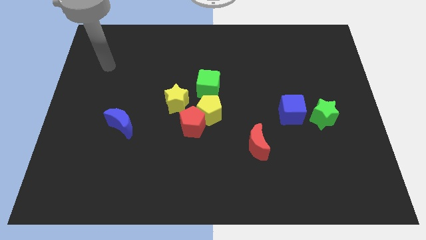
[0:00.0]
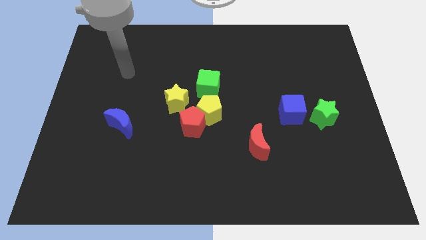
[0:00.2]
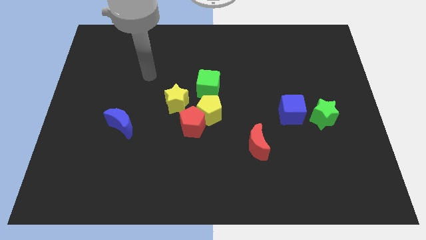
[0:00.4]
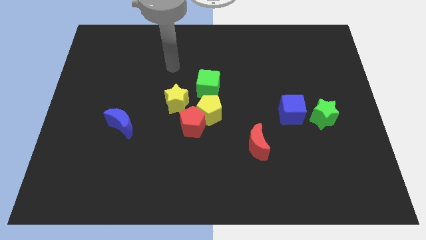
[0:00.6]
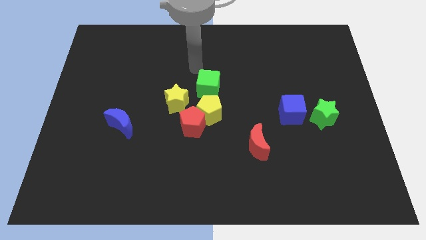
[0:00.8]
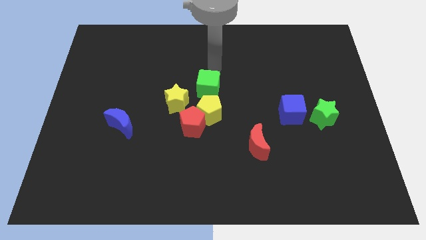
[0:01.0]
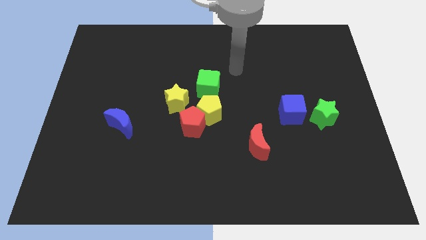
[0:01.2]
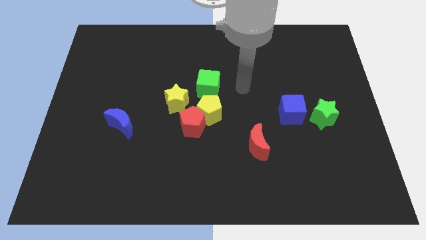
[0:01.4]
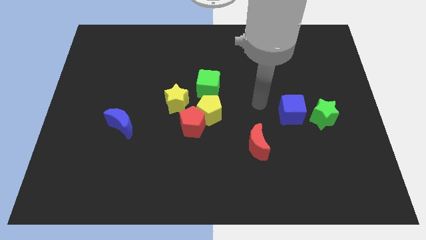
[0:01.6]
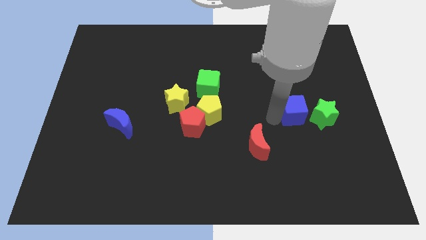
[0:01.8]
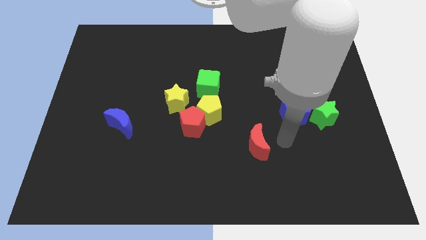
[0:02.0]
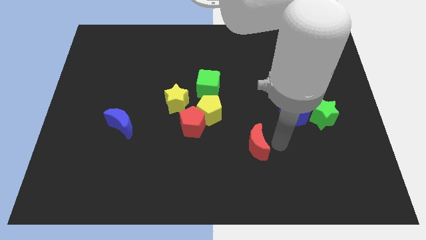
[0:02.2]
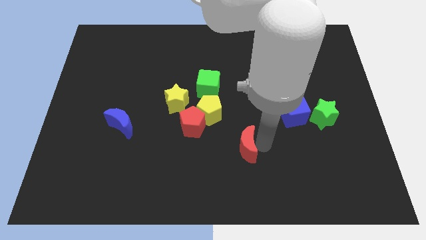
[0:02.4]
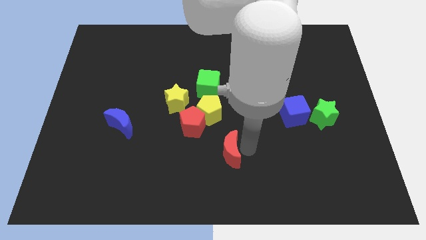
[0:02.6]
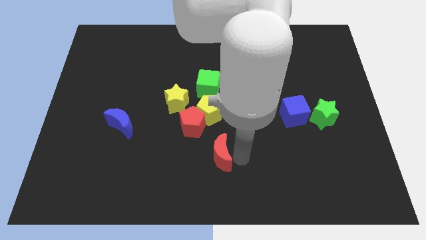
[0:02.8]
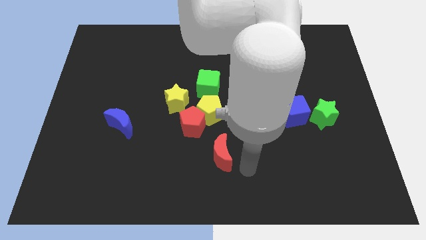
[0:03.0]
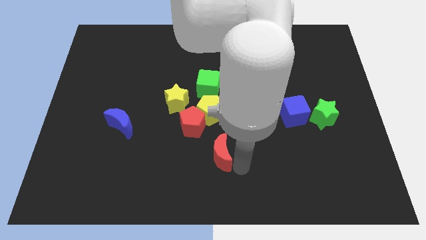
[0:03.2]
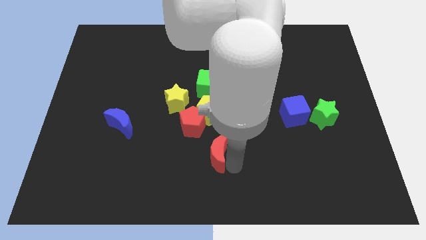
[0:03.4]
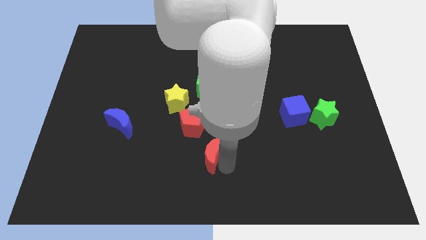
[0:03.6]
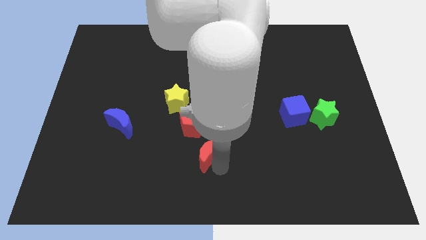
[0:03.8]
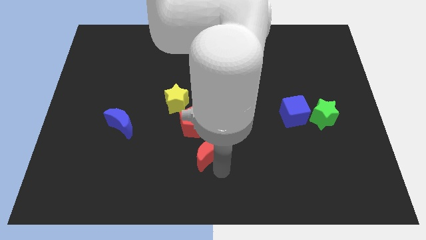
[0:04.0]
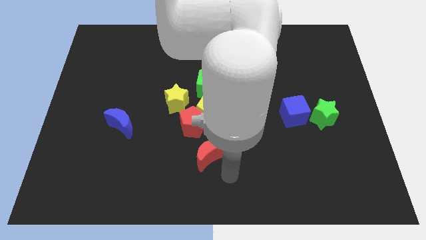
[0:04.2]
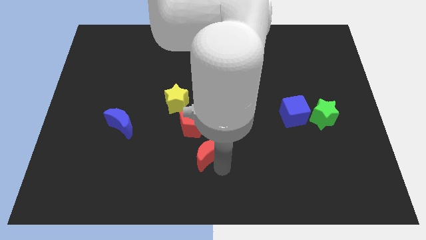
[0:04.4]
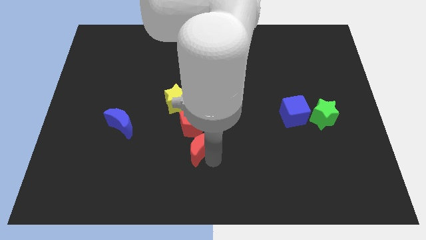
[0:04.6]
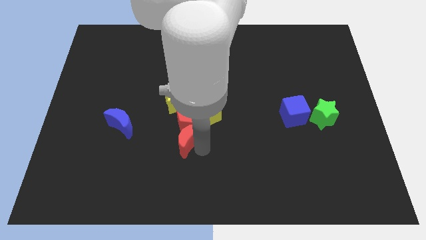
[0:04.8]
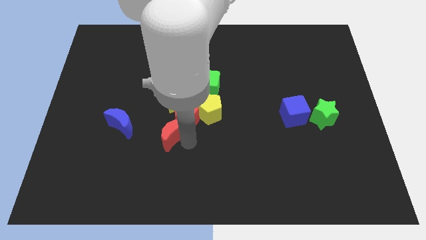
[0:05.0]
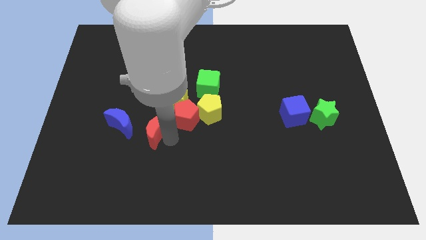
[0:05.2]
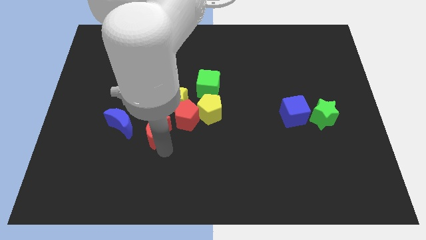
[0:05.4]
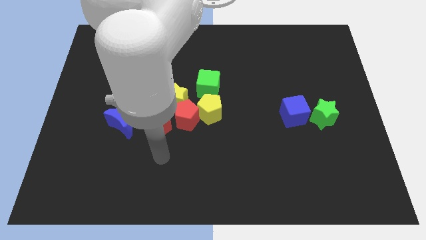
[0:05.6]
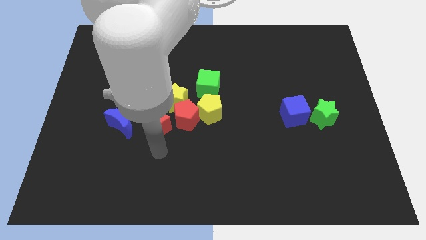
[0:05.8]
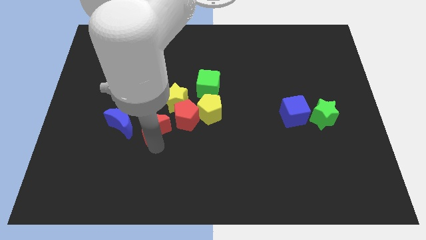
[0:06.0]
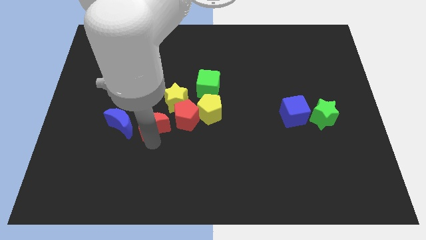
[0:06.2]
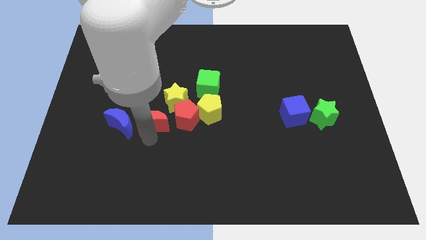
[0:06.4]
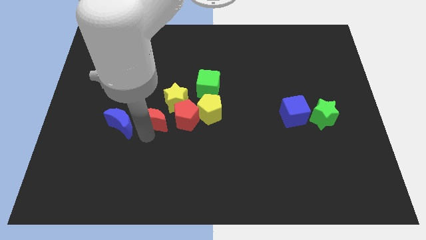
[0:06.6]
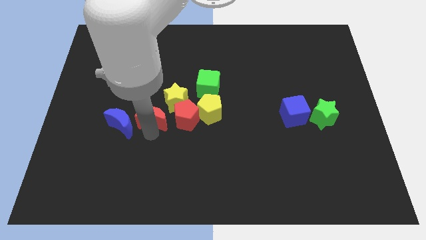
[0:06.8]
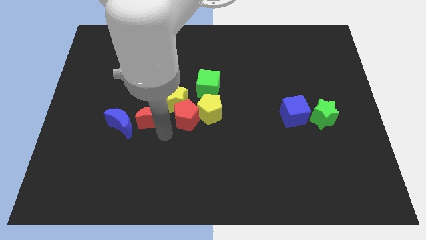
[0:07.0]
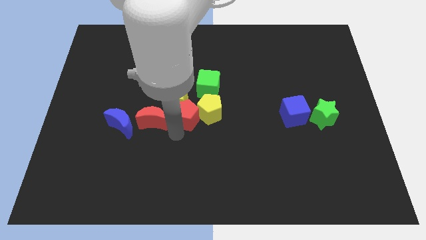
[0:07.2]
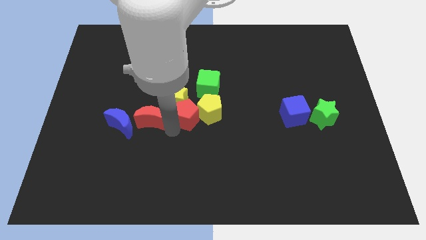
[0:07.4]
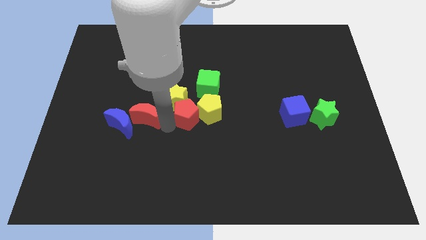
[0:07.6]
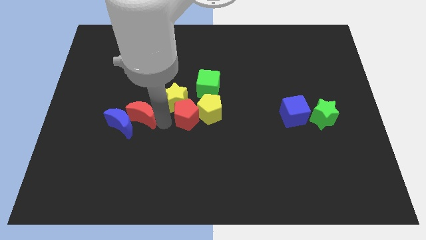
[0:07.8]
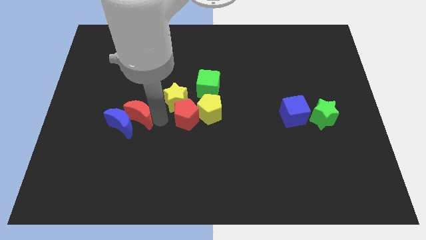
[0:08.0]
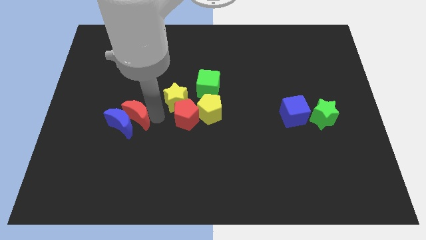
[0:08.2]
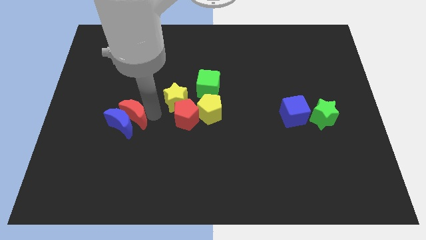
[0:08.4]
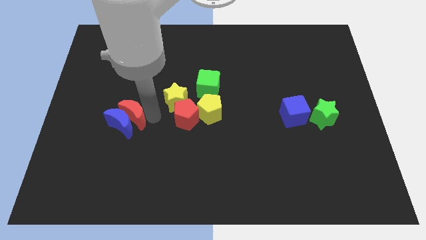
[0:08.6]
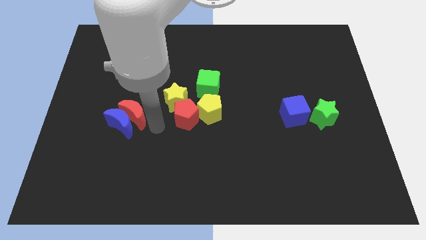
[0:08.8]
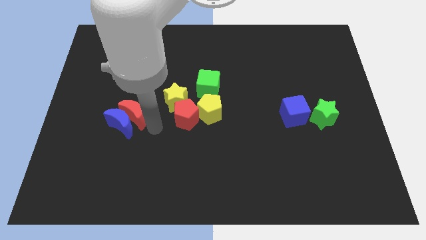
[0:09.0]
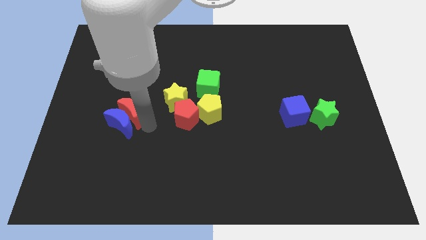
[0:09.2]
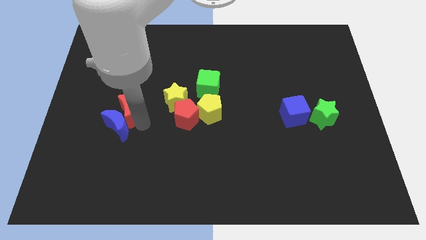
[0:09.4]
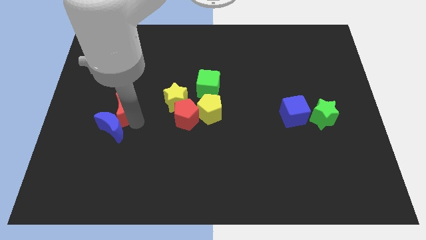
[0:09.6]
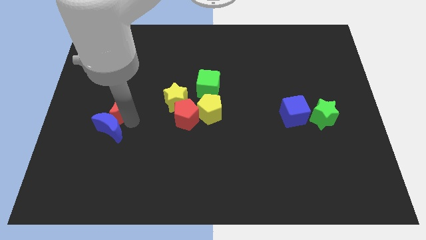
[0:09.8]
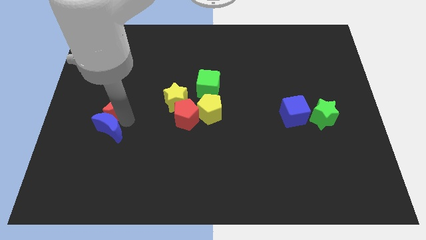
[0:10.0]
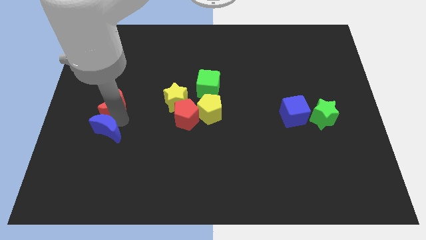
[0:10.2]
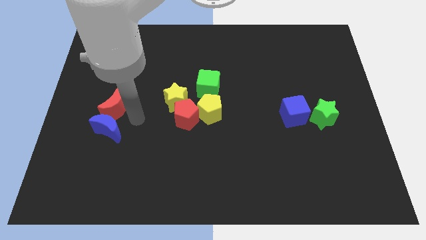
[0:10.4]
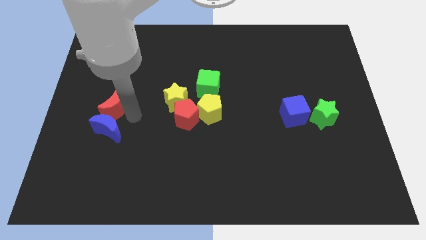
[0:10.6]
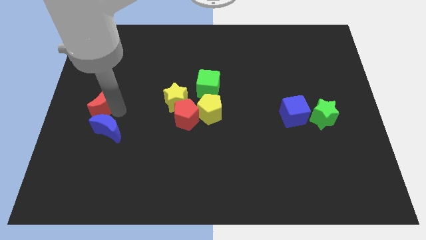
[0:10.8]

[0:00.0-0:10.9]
slide the red moon to the left side

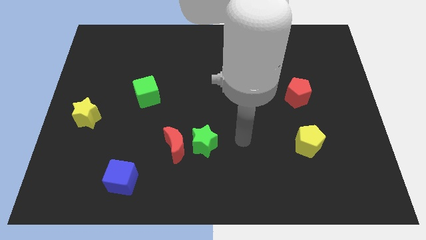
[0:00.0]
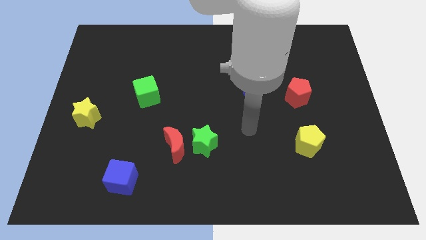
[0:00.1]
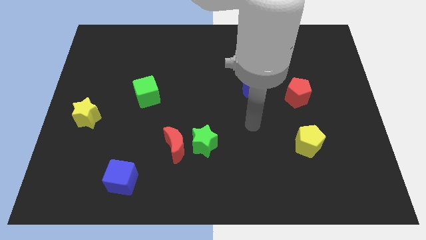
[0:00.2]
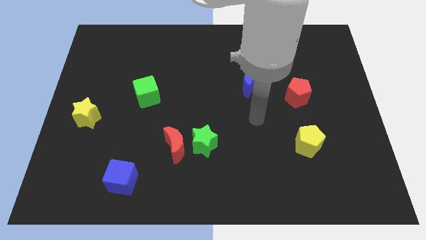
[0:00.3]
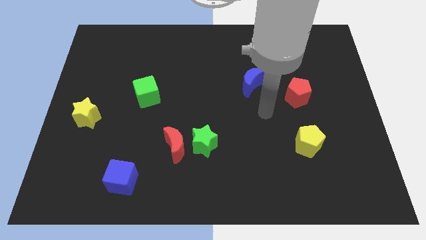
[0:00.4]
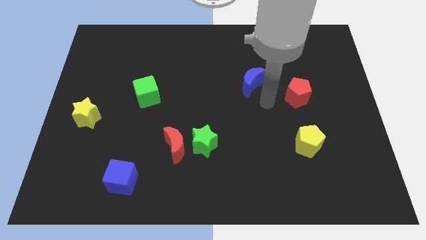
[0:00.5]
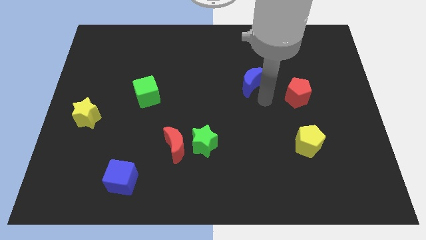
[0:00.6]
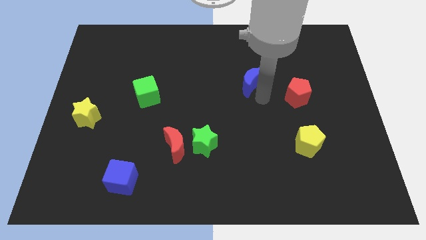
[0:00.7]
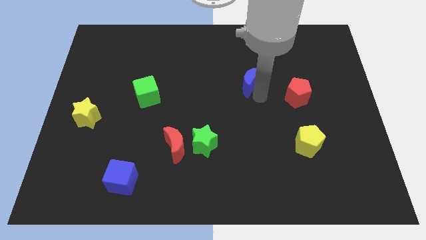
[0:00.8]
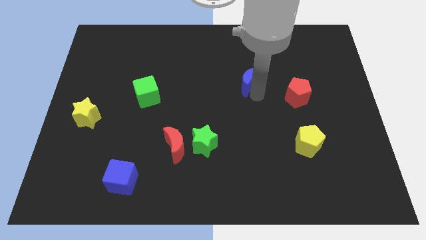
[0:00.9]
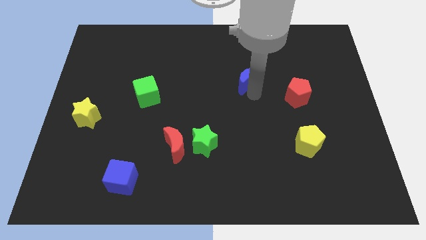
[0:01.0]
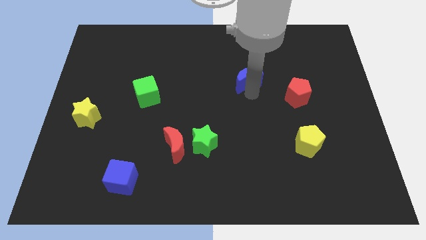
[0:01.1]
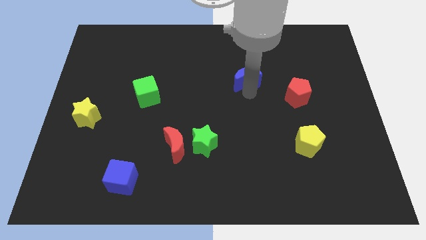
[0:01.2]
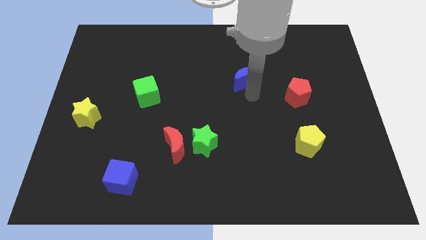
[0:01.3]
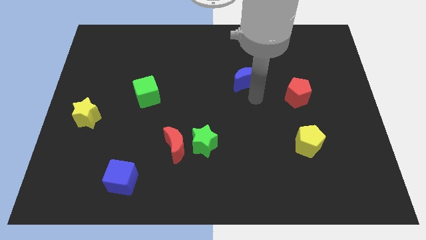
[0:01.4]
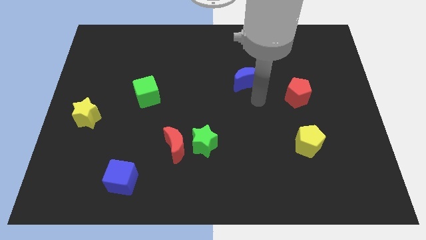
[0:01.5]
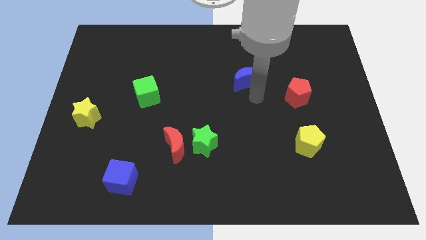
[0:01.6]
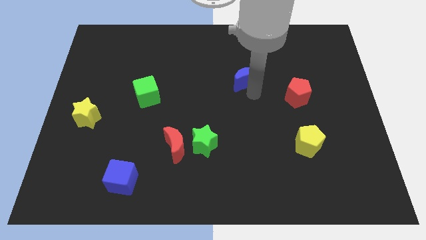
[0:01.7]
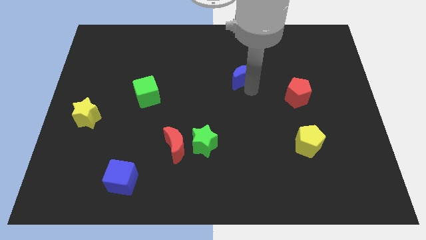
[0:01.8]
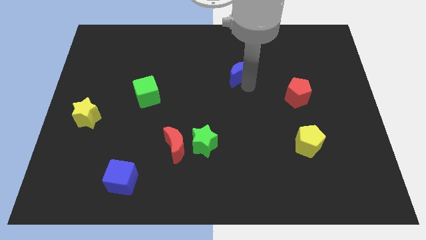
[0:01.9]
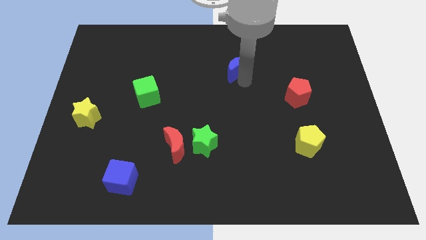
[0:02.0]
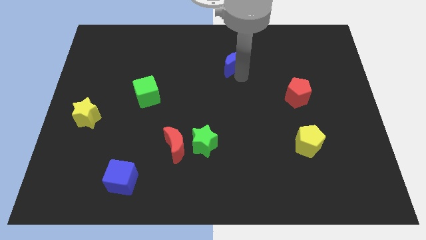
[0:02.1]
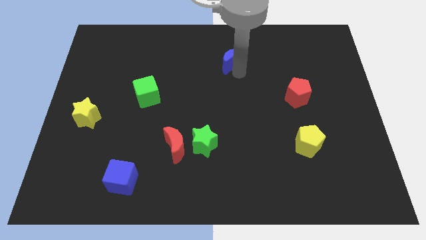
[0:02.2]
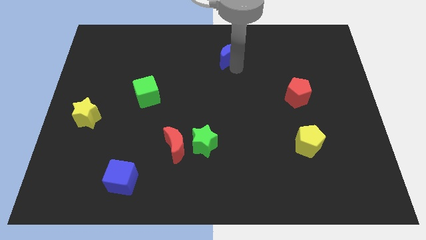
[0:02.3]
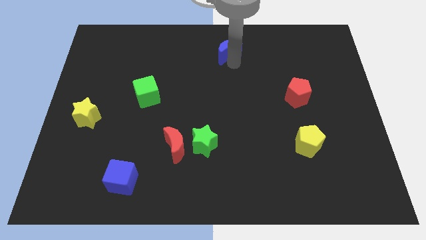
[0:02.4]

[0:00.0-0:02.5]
slide the blue moon to the towards your base
